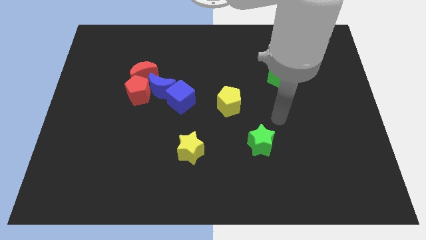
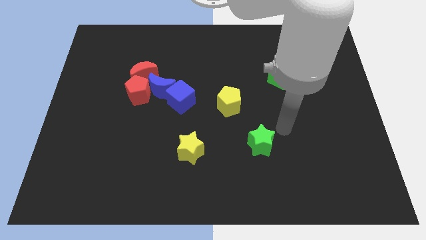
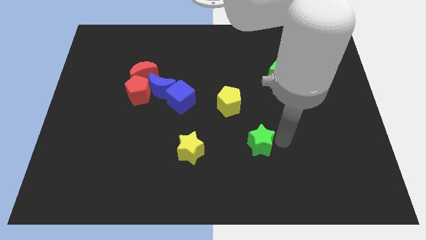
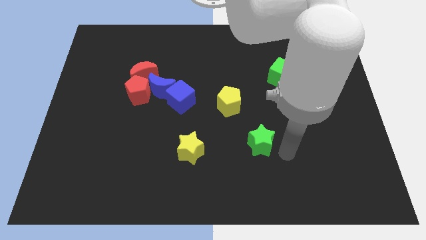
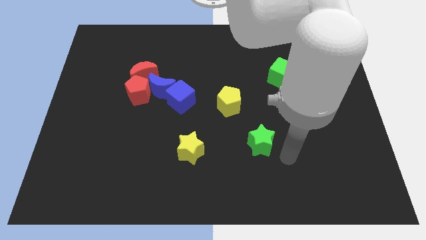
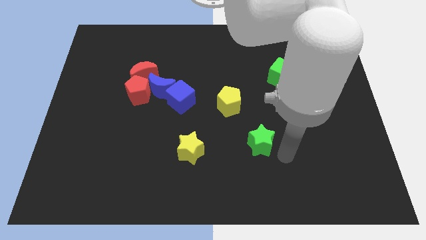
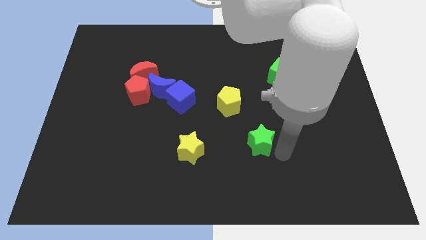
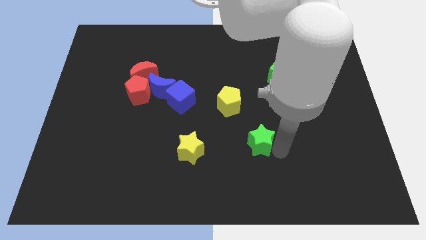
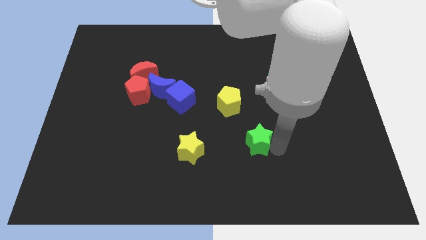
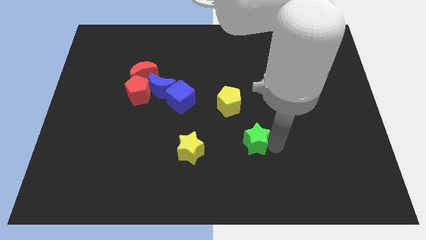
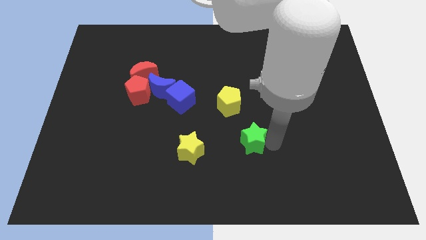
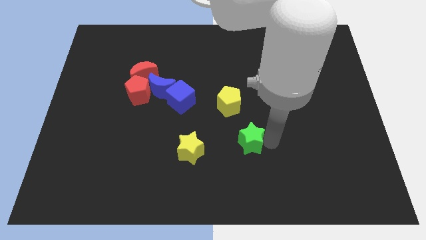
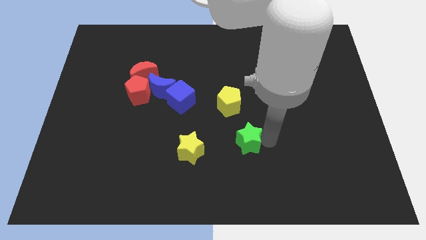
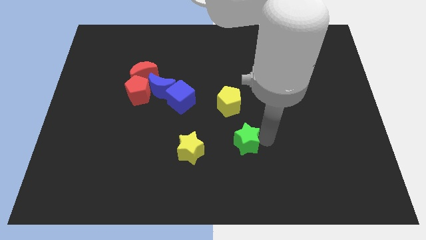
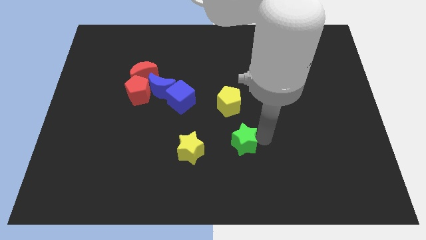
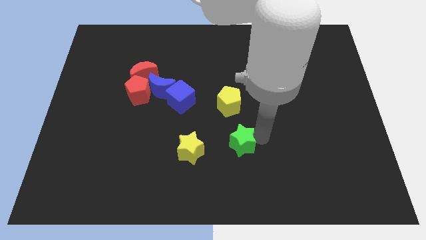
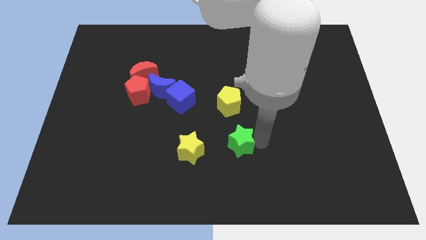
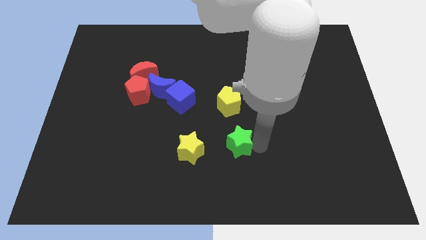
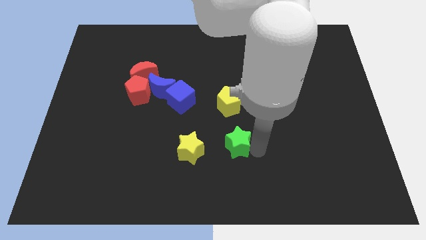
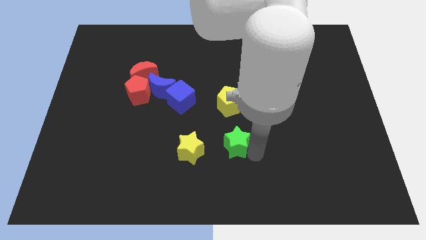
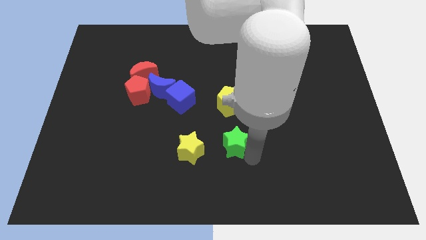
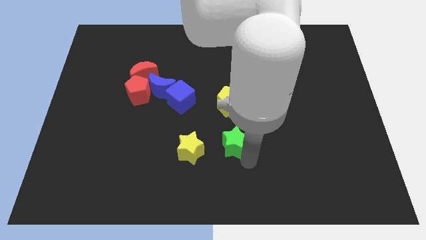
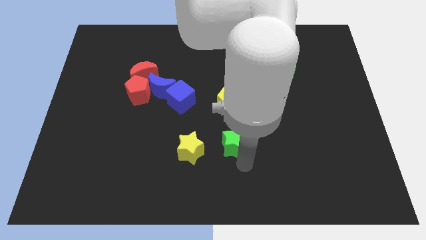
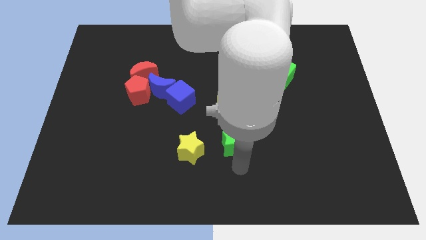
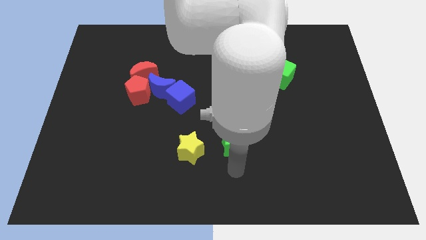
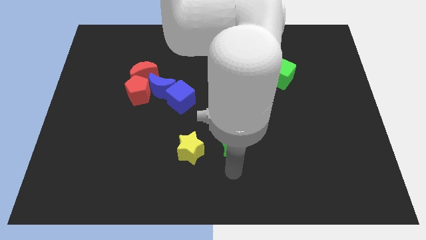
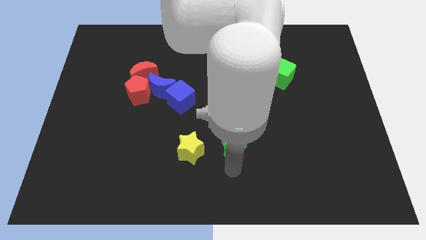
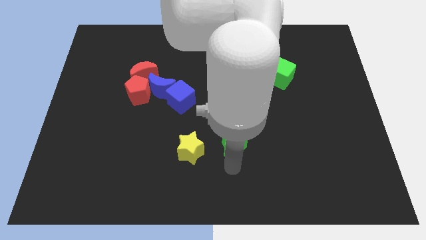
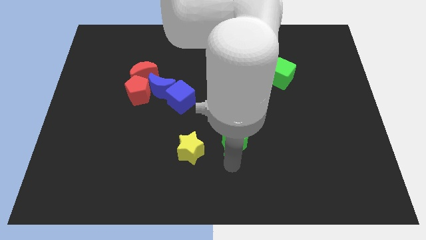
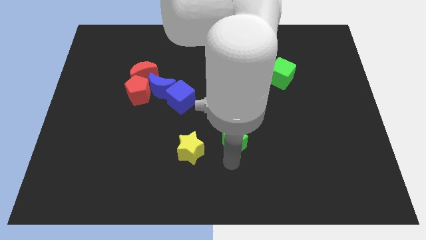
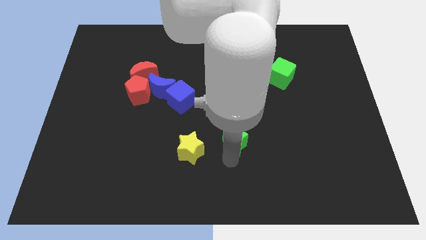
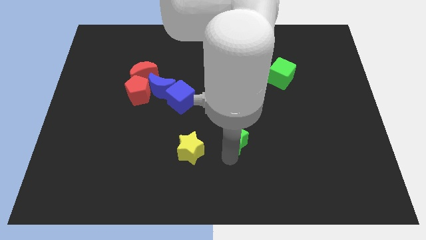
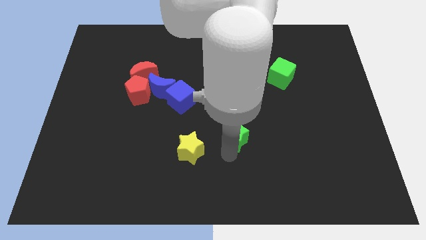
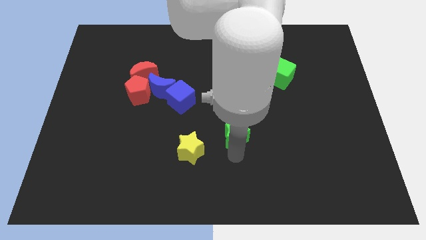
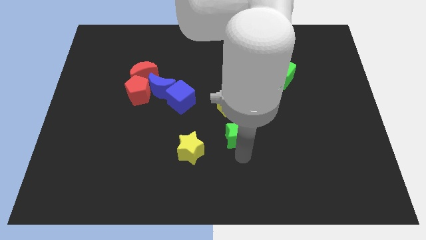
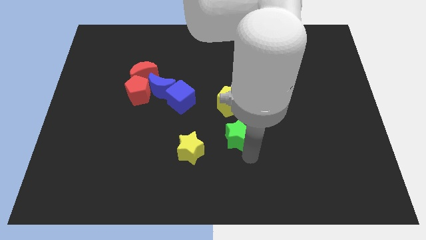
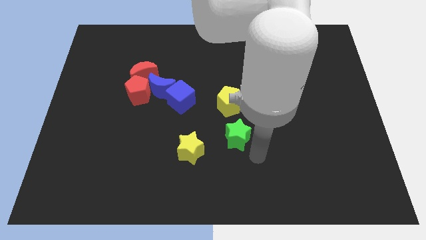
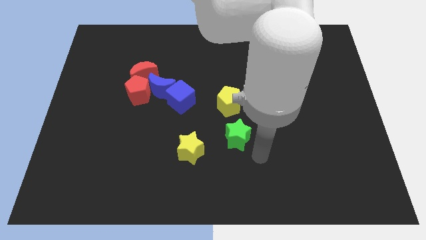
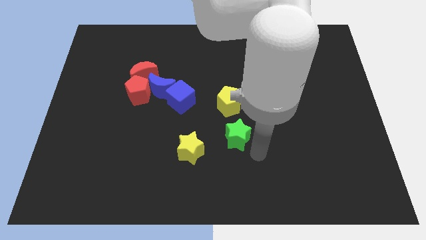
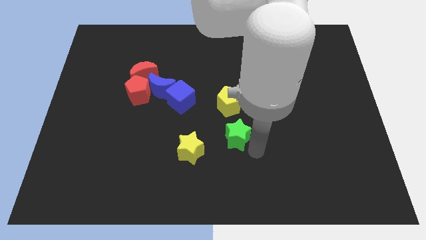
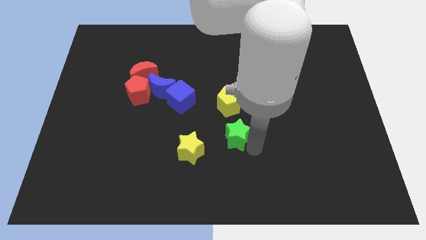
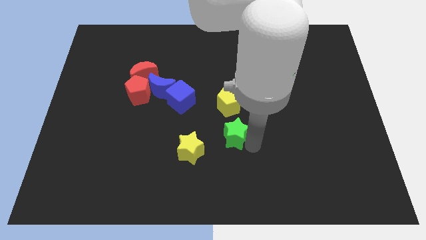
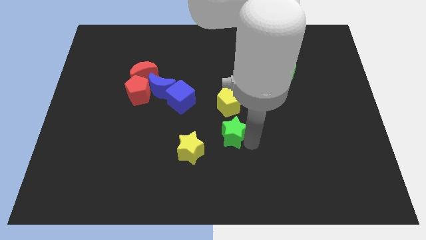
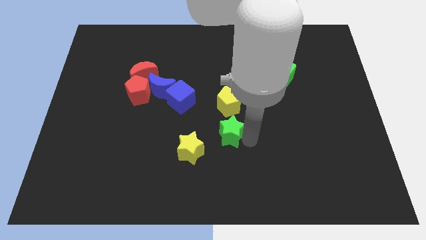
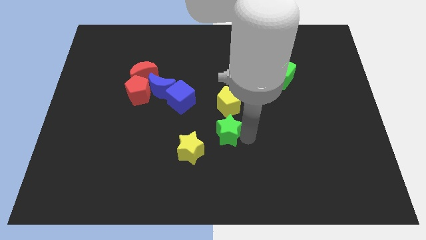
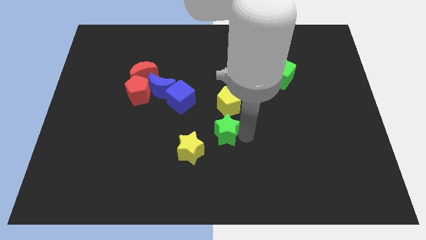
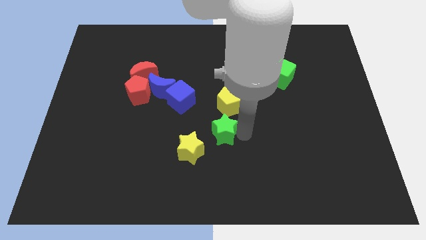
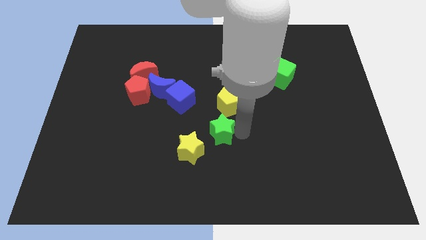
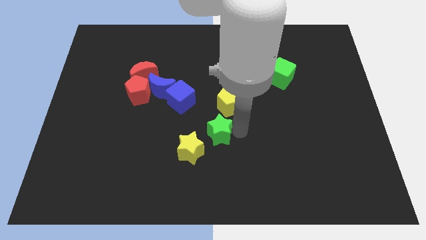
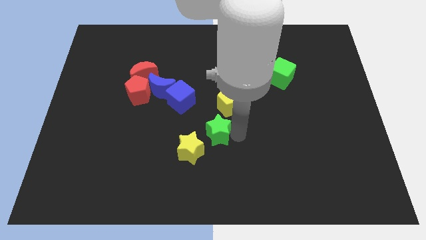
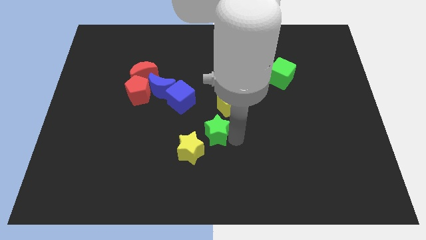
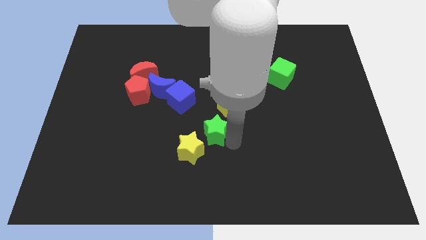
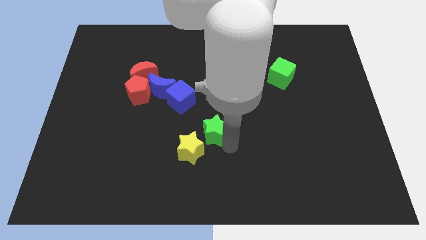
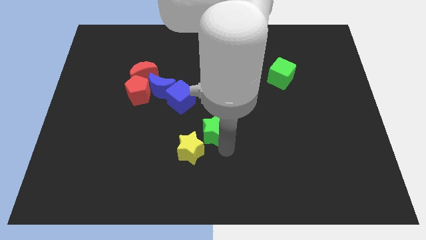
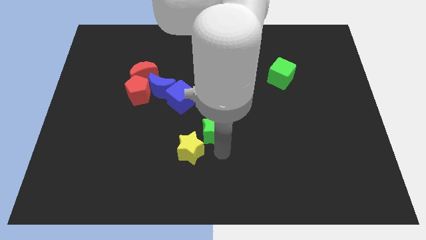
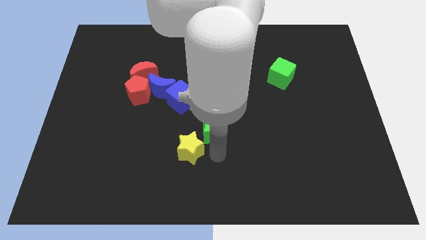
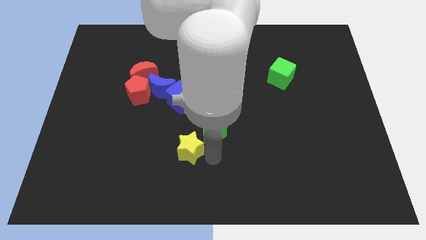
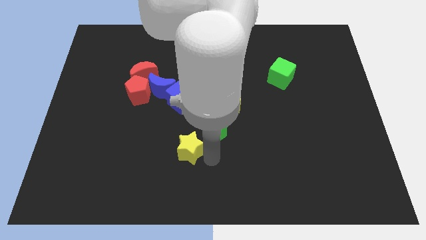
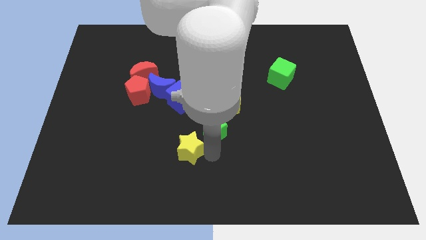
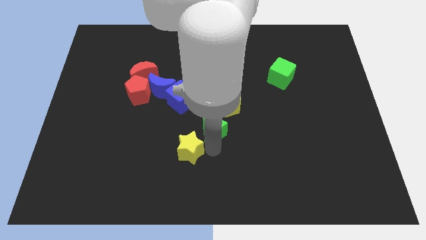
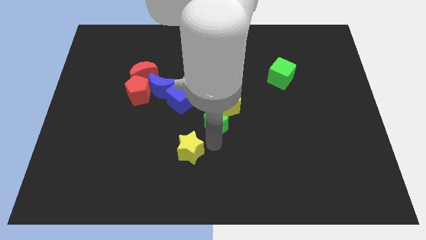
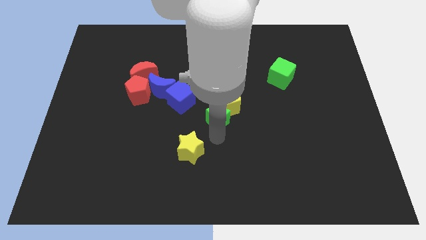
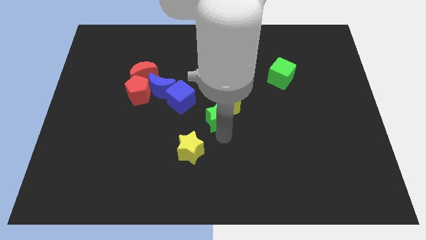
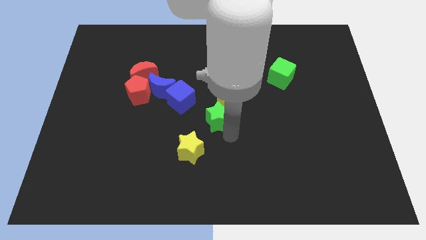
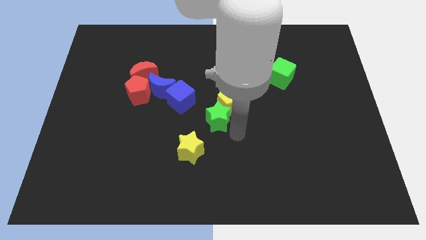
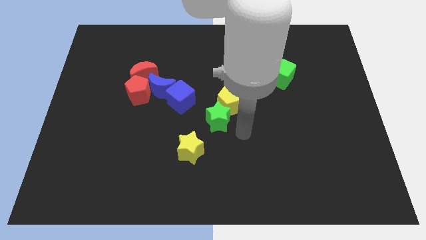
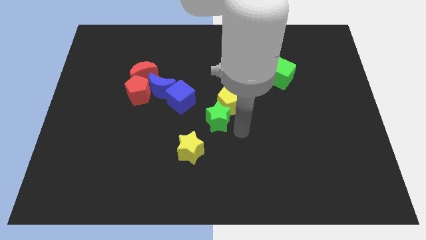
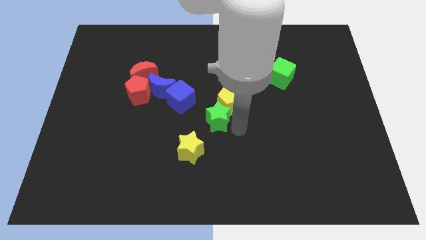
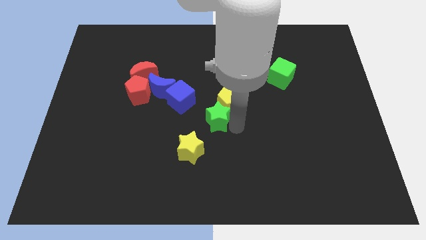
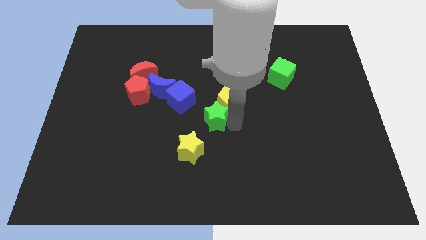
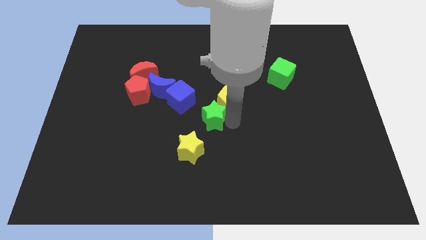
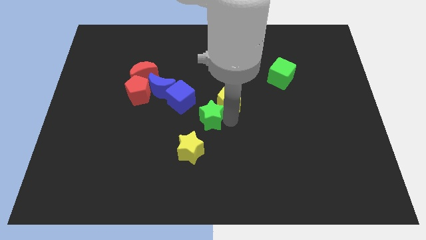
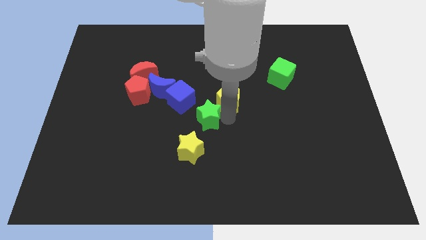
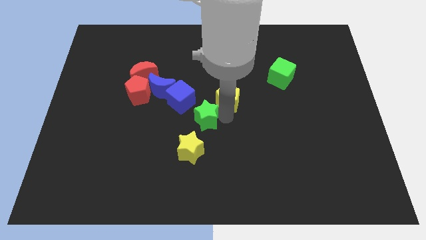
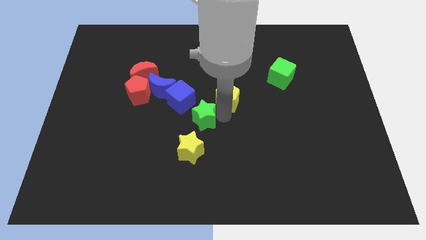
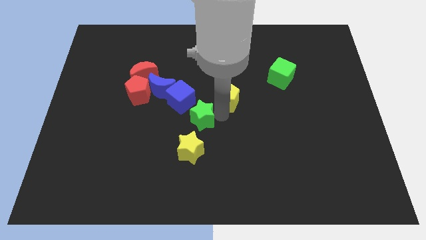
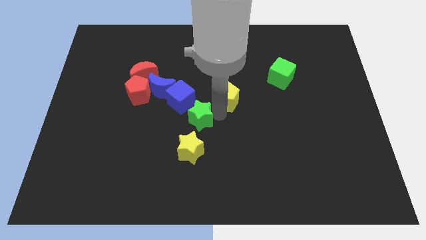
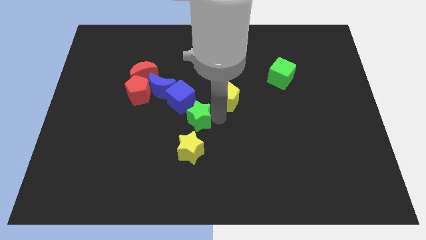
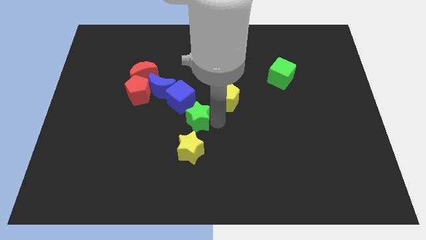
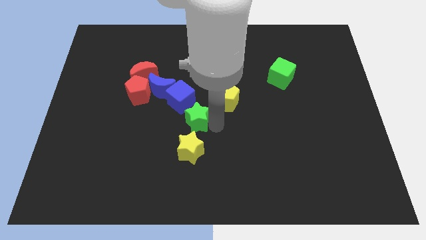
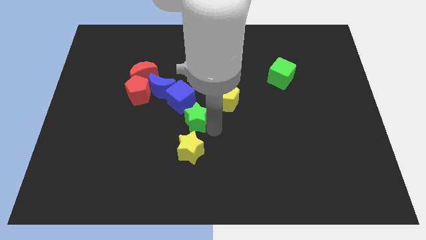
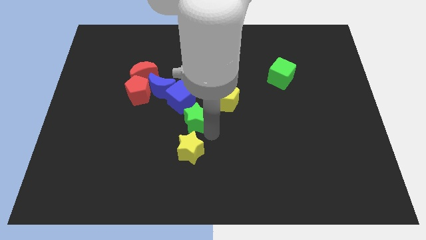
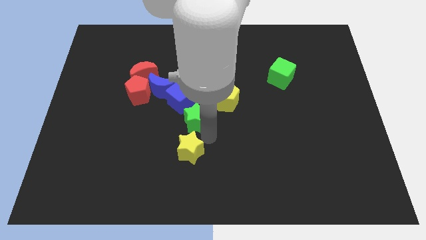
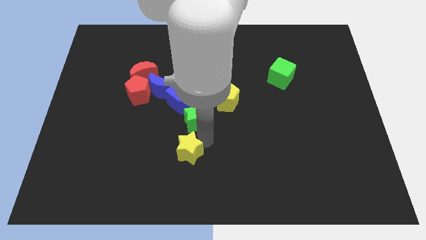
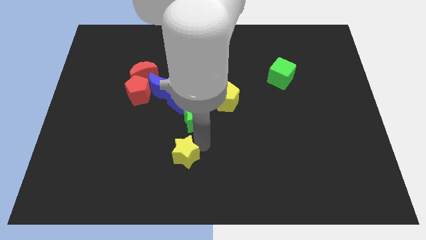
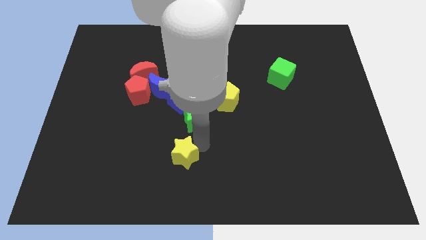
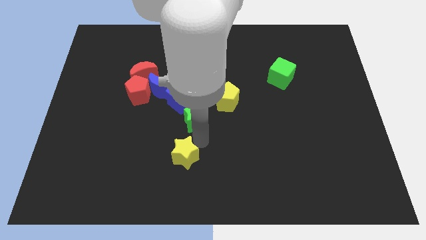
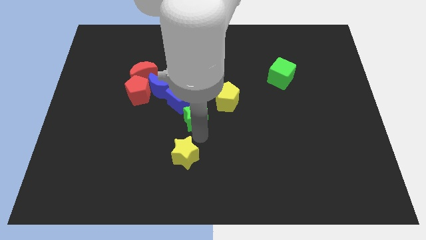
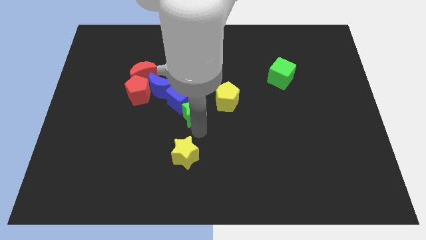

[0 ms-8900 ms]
put the green star close to the blue cube
